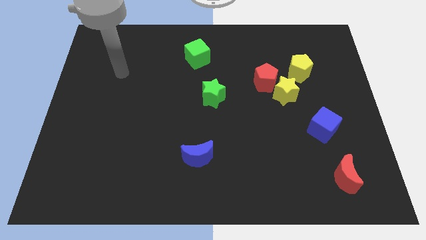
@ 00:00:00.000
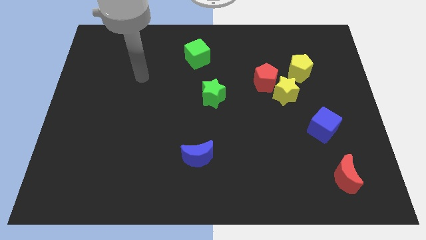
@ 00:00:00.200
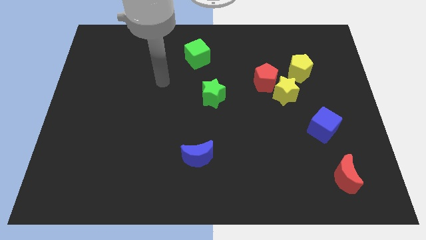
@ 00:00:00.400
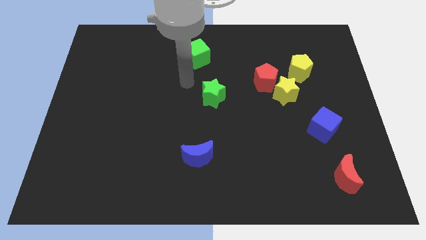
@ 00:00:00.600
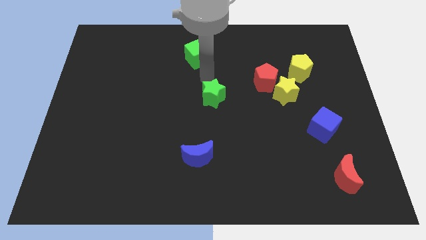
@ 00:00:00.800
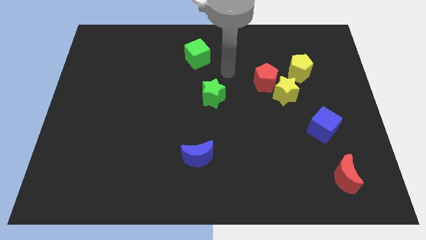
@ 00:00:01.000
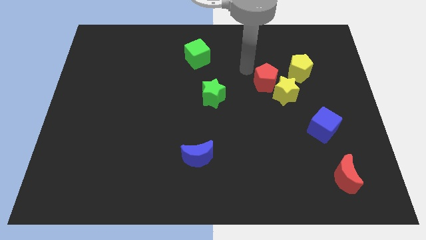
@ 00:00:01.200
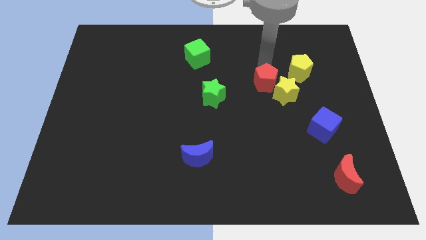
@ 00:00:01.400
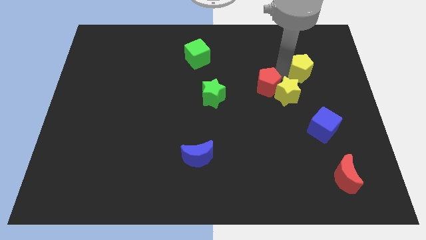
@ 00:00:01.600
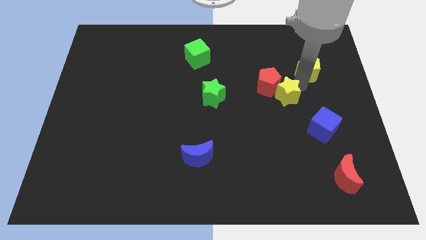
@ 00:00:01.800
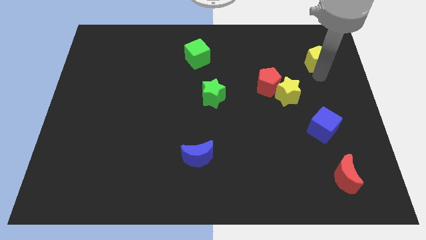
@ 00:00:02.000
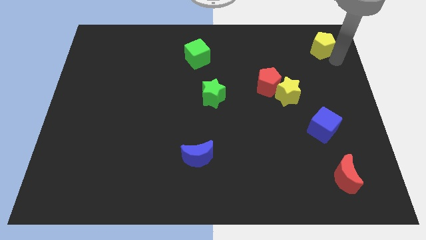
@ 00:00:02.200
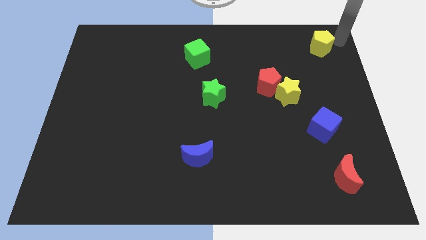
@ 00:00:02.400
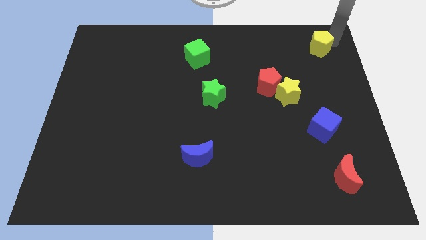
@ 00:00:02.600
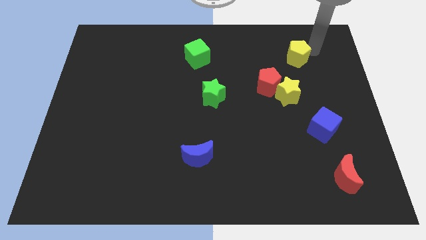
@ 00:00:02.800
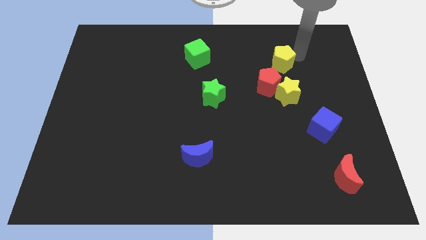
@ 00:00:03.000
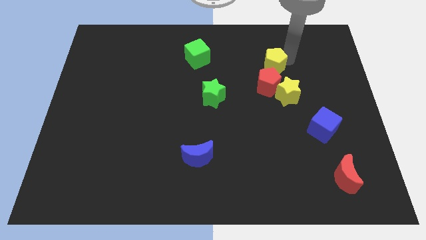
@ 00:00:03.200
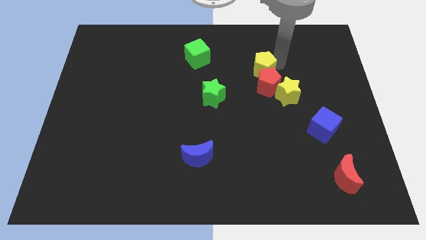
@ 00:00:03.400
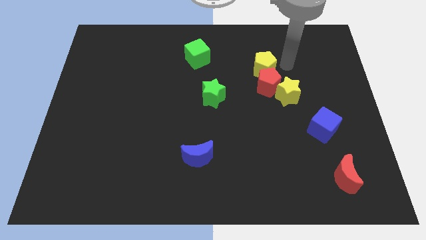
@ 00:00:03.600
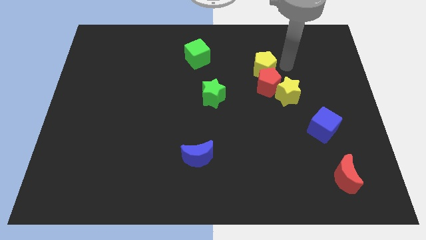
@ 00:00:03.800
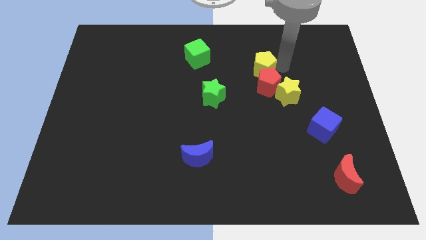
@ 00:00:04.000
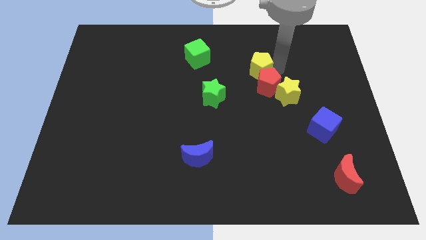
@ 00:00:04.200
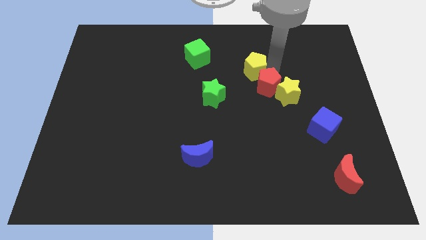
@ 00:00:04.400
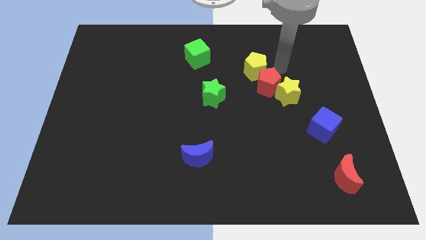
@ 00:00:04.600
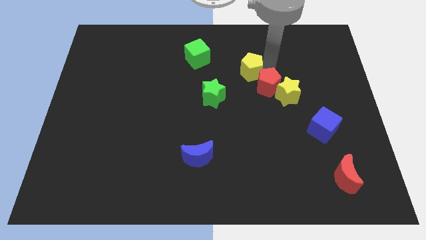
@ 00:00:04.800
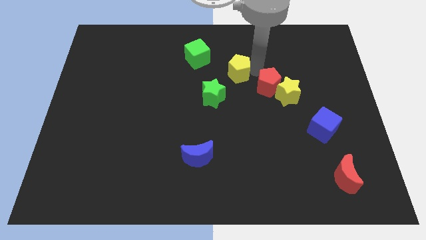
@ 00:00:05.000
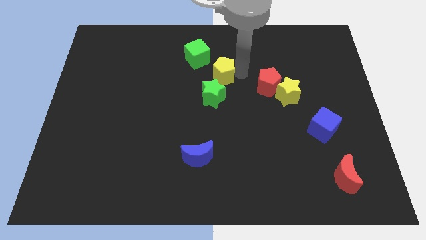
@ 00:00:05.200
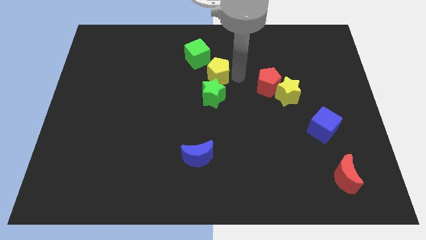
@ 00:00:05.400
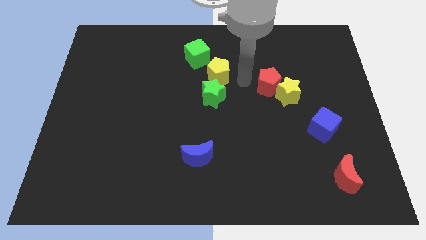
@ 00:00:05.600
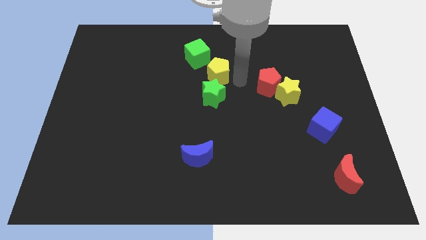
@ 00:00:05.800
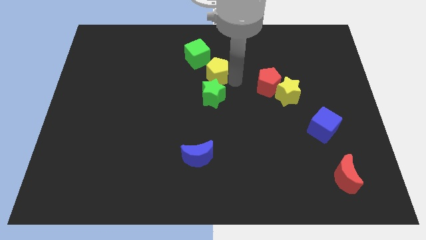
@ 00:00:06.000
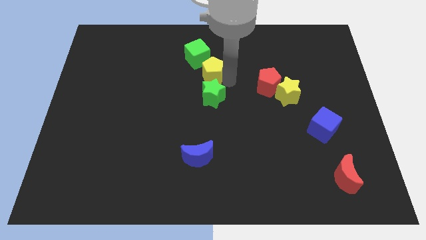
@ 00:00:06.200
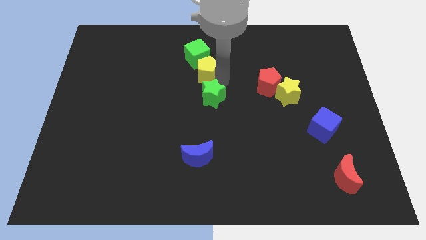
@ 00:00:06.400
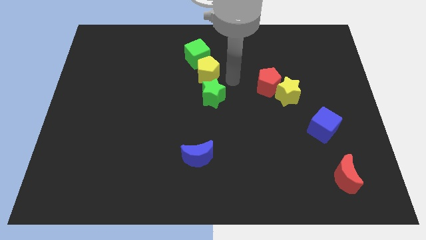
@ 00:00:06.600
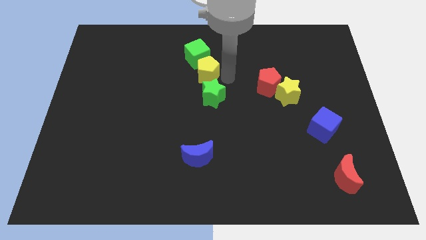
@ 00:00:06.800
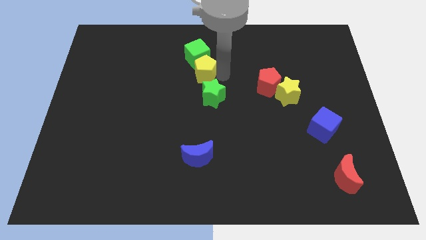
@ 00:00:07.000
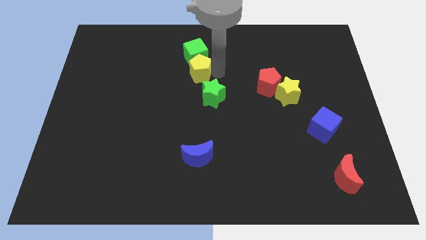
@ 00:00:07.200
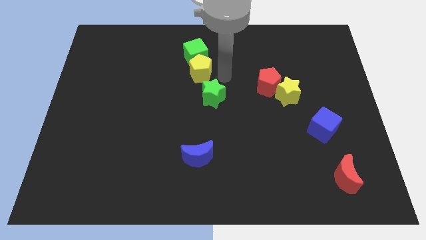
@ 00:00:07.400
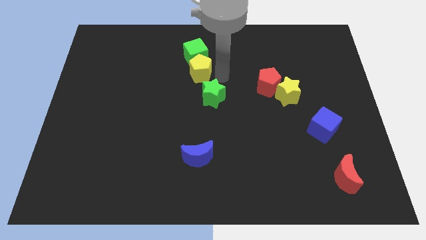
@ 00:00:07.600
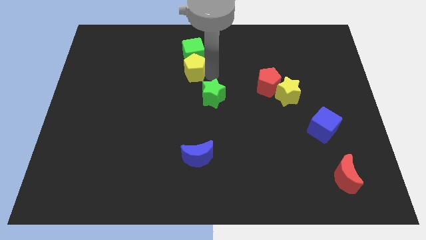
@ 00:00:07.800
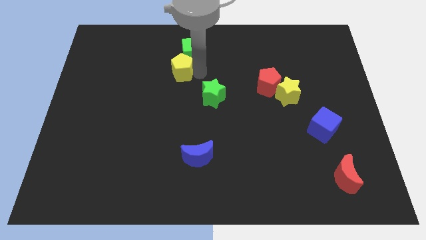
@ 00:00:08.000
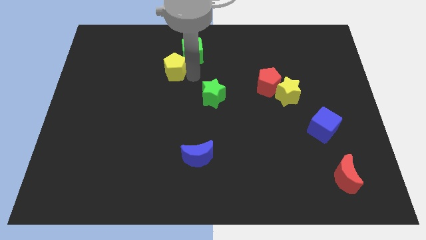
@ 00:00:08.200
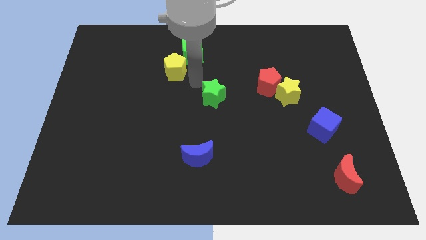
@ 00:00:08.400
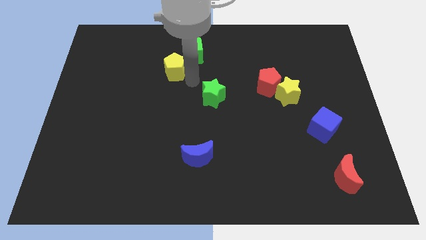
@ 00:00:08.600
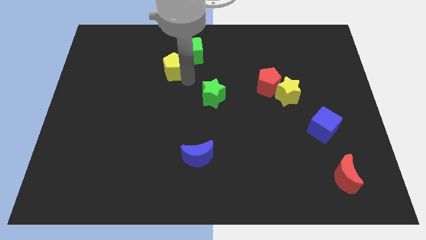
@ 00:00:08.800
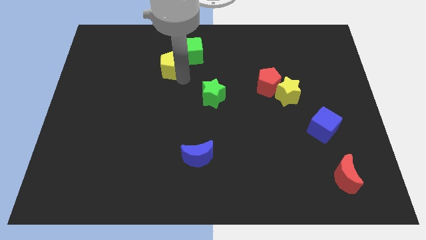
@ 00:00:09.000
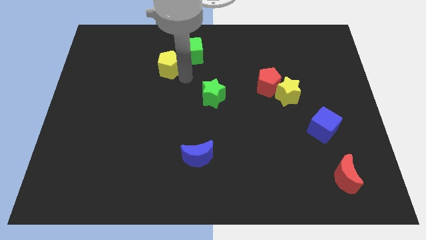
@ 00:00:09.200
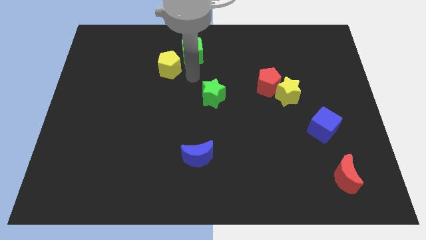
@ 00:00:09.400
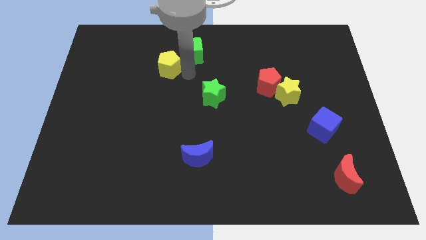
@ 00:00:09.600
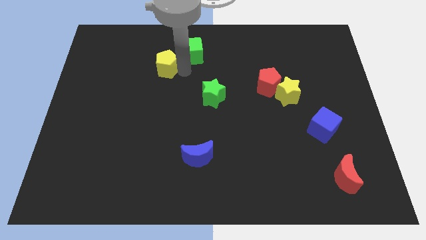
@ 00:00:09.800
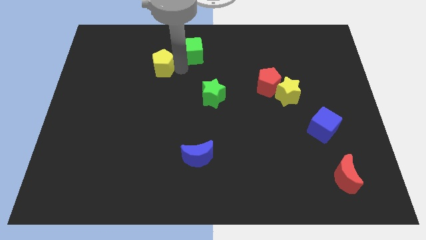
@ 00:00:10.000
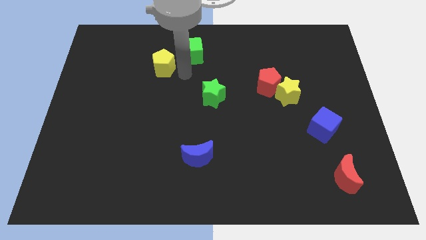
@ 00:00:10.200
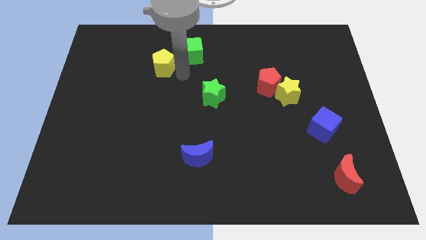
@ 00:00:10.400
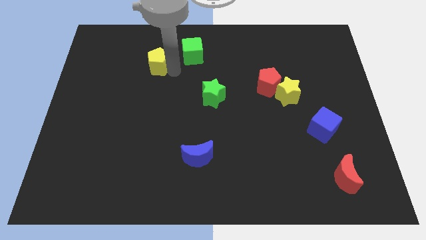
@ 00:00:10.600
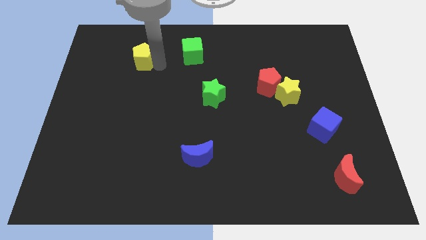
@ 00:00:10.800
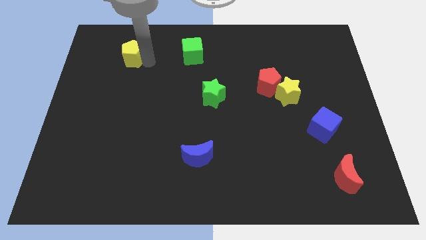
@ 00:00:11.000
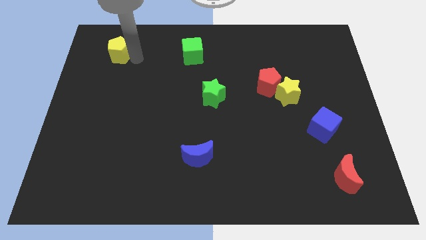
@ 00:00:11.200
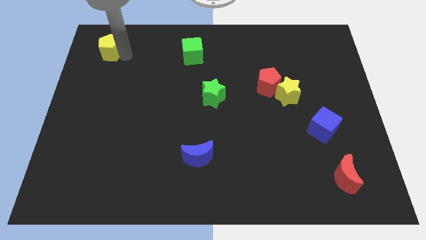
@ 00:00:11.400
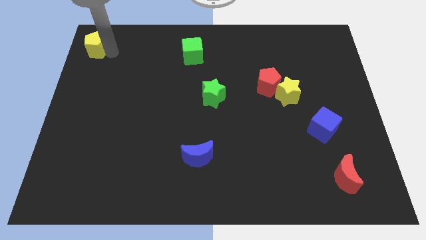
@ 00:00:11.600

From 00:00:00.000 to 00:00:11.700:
push the yellow pentagon to the upper left corner
